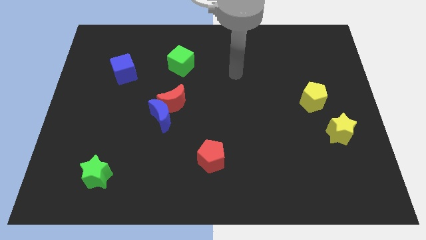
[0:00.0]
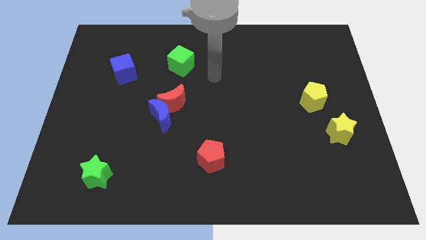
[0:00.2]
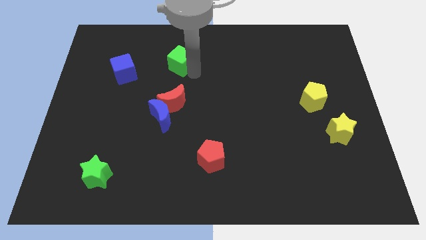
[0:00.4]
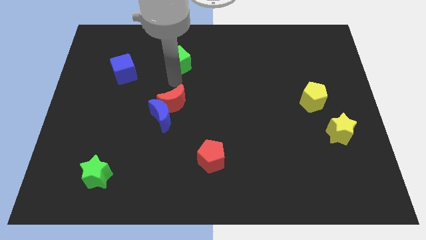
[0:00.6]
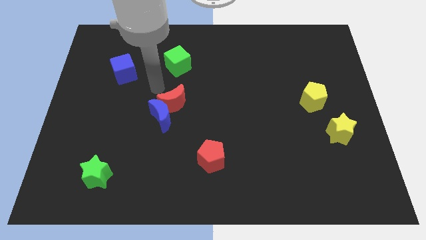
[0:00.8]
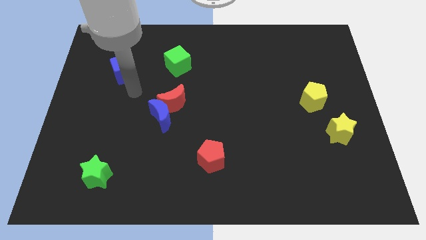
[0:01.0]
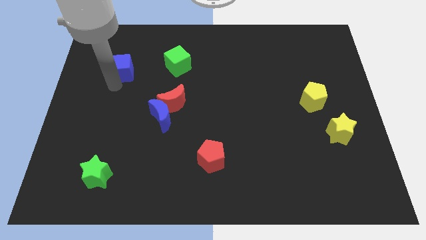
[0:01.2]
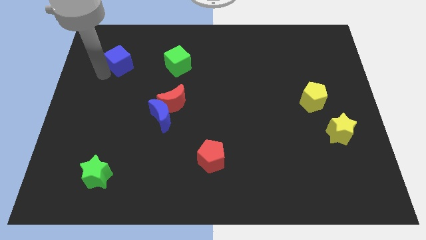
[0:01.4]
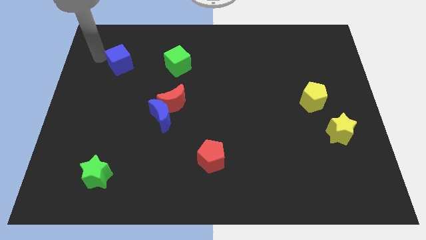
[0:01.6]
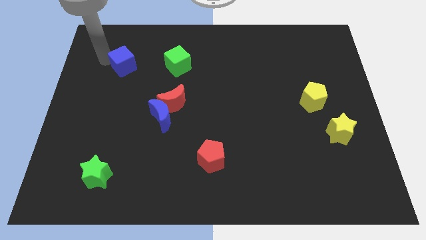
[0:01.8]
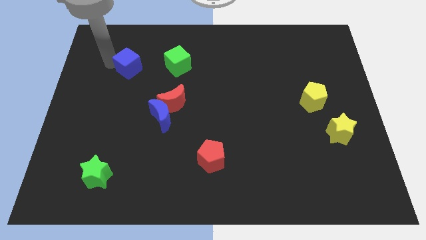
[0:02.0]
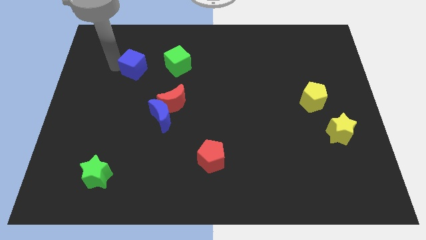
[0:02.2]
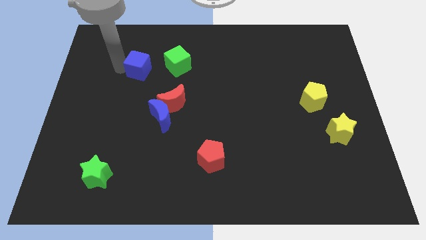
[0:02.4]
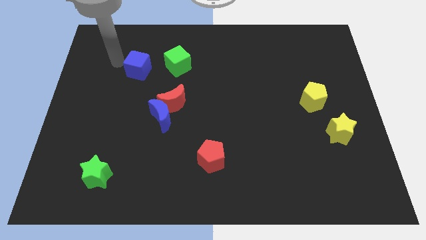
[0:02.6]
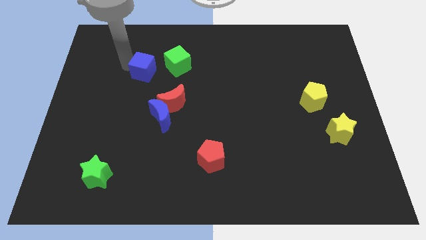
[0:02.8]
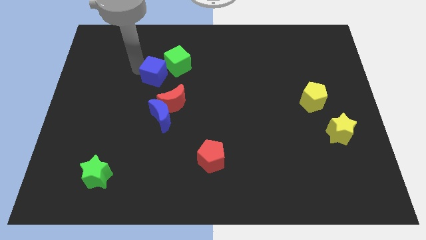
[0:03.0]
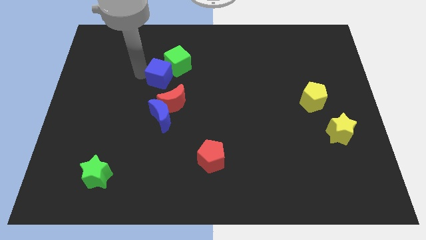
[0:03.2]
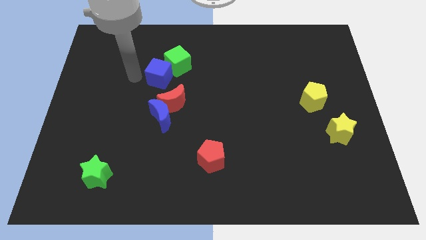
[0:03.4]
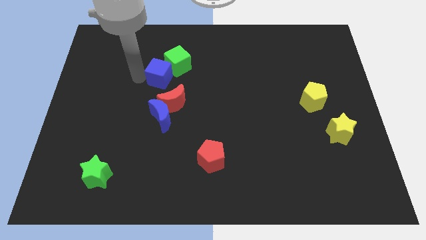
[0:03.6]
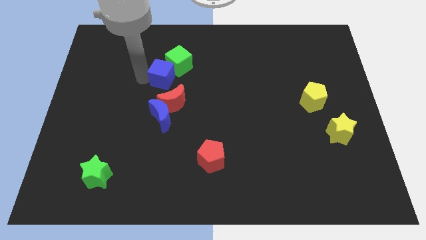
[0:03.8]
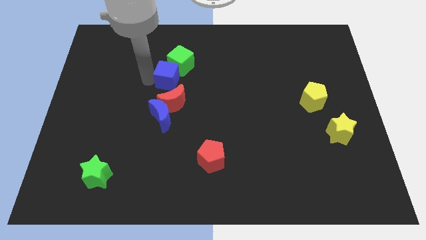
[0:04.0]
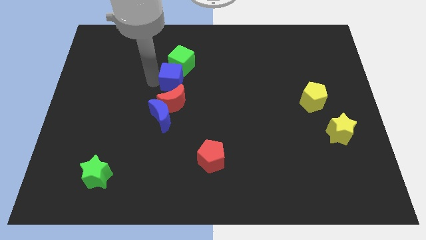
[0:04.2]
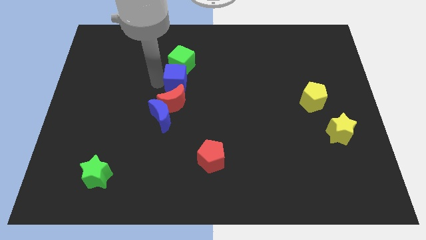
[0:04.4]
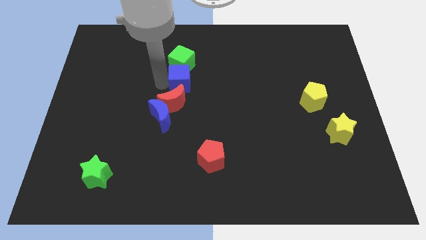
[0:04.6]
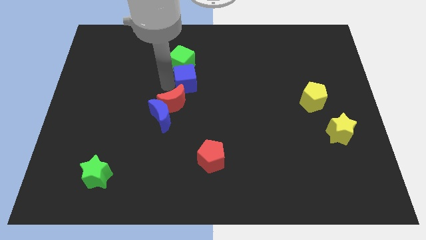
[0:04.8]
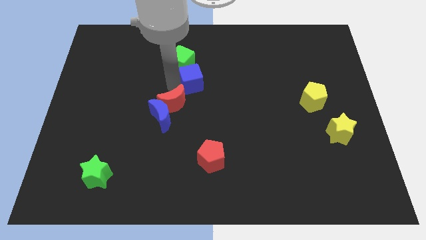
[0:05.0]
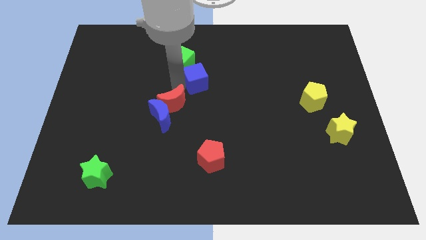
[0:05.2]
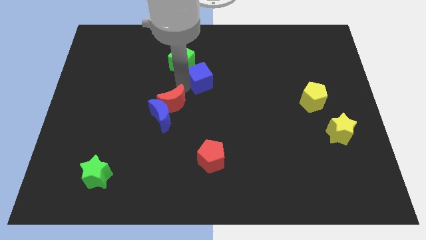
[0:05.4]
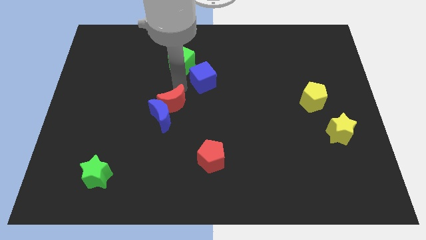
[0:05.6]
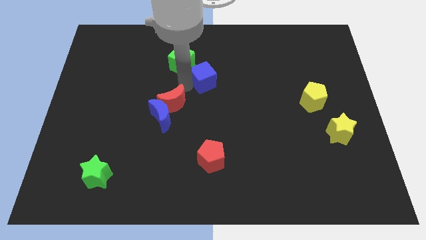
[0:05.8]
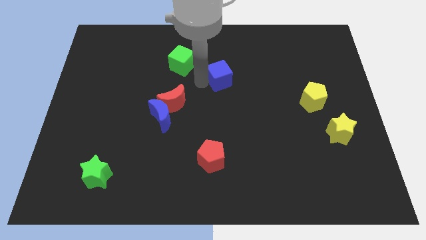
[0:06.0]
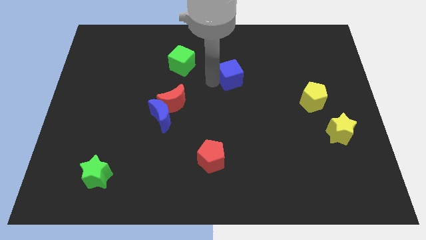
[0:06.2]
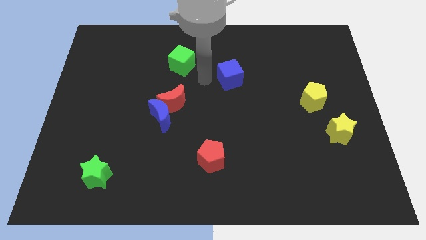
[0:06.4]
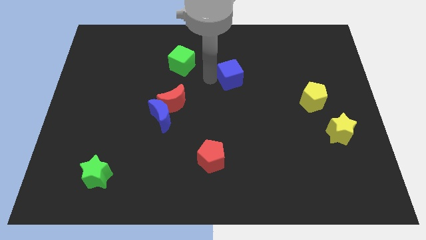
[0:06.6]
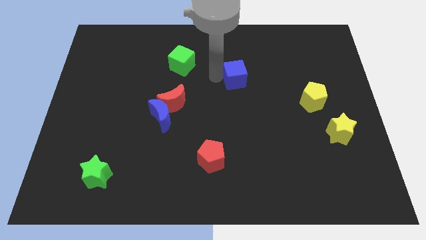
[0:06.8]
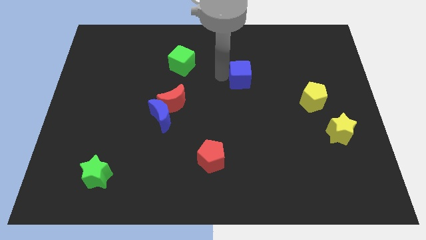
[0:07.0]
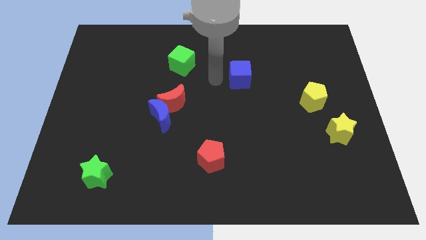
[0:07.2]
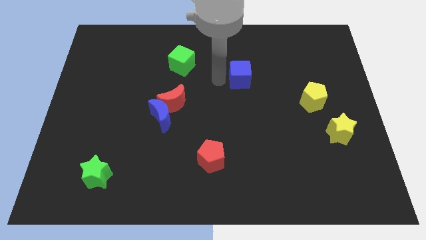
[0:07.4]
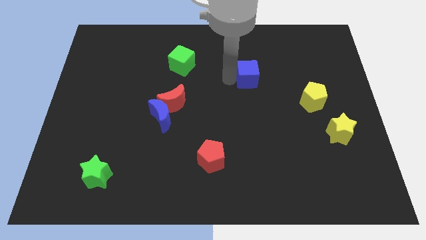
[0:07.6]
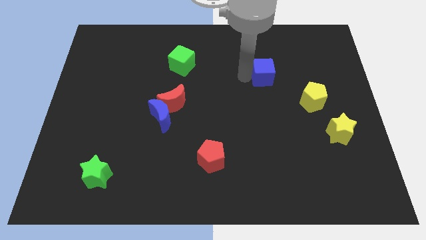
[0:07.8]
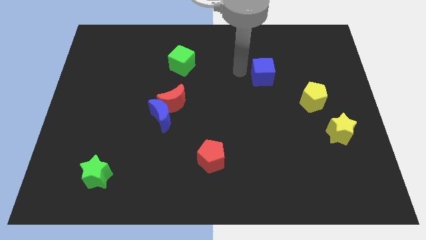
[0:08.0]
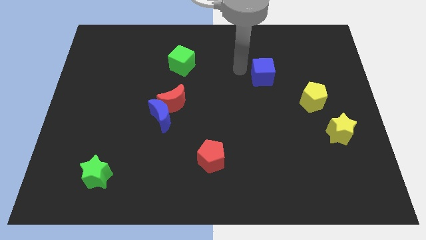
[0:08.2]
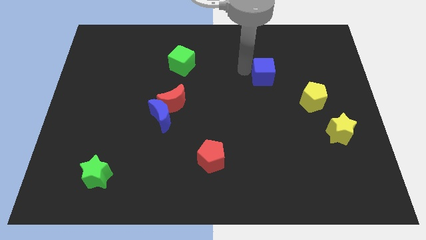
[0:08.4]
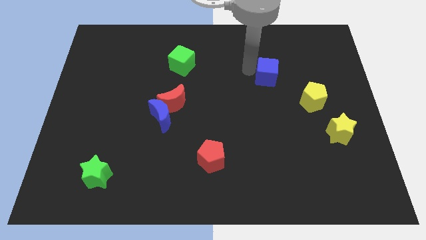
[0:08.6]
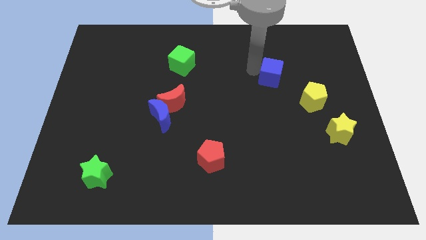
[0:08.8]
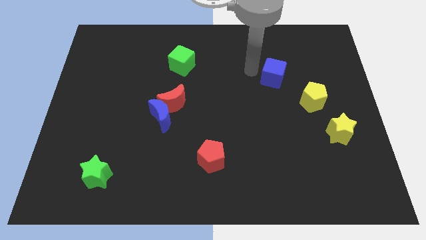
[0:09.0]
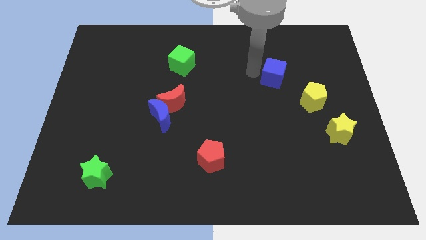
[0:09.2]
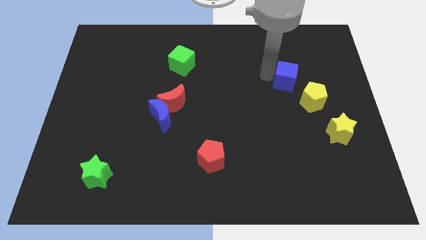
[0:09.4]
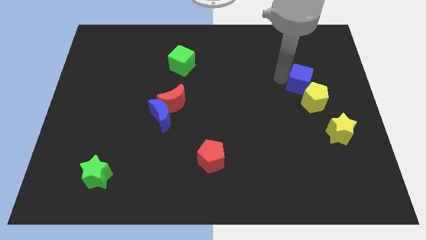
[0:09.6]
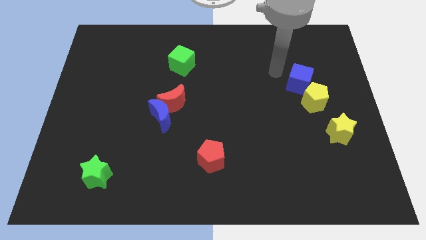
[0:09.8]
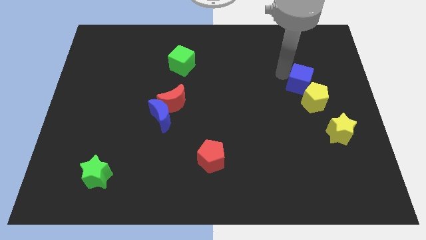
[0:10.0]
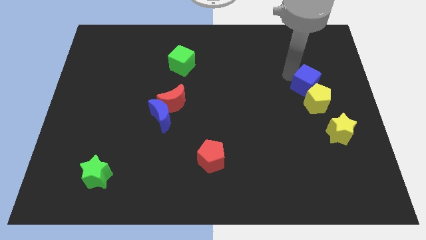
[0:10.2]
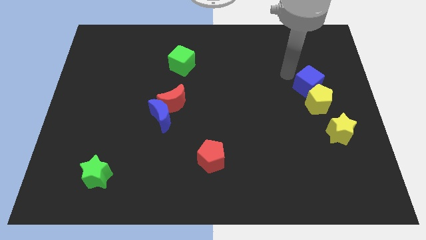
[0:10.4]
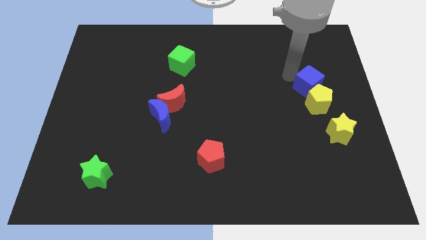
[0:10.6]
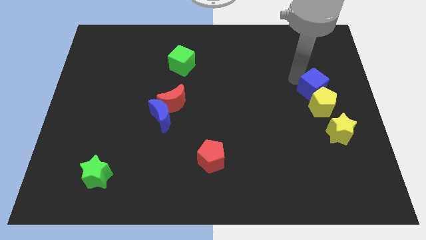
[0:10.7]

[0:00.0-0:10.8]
put the blue cube to the top side of the yellow star

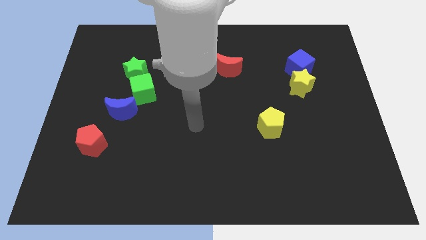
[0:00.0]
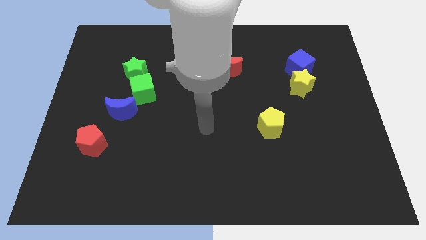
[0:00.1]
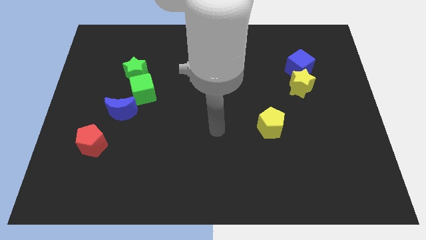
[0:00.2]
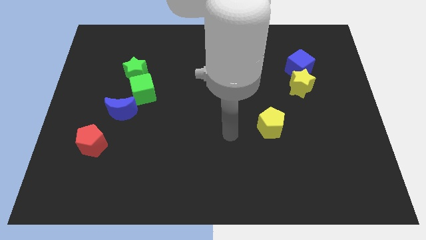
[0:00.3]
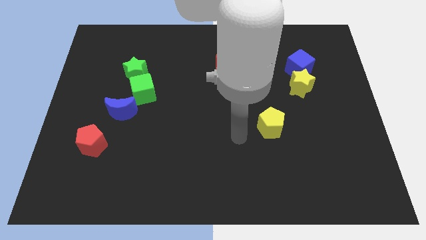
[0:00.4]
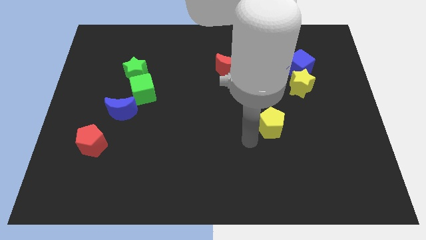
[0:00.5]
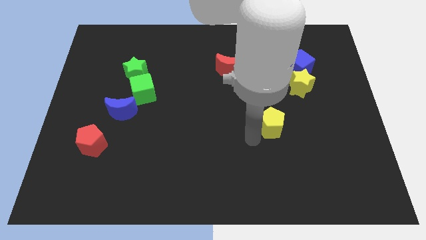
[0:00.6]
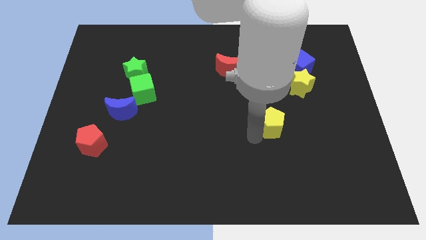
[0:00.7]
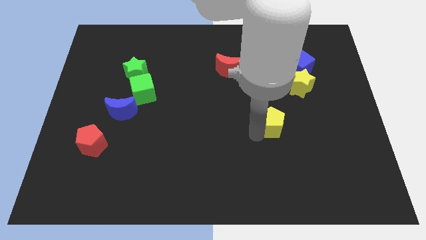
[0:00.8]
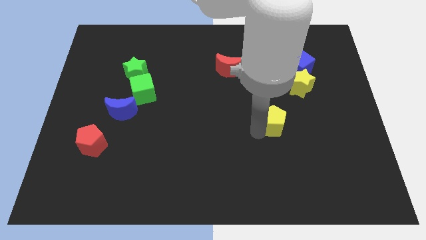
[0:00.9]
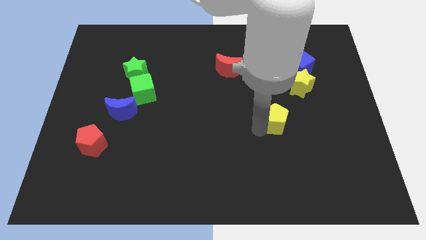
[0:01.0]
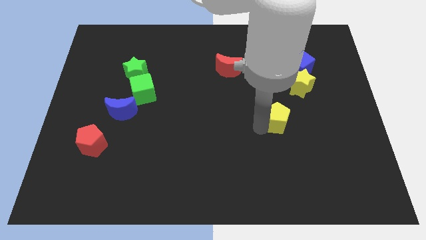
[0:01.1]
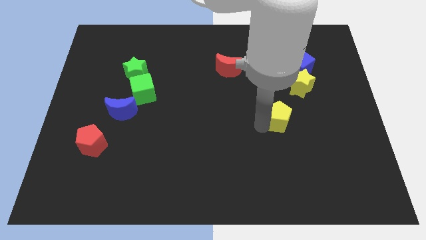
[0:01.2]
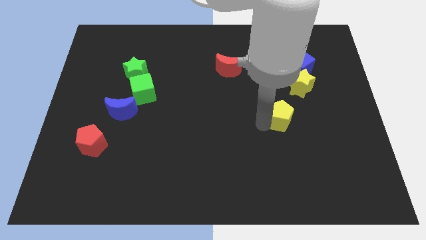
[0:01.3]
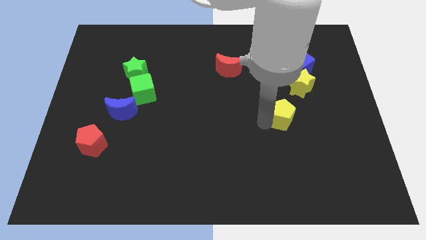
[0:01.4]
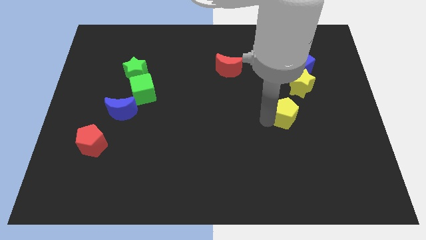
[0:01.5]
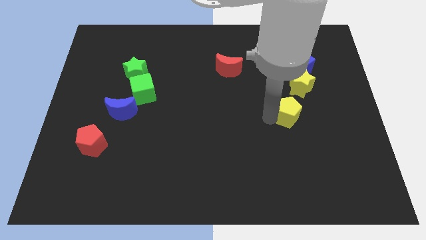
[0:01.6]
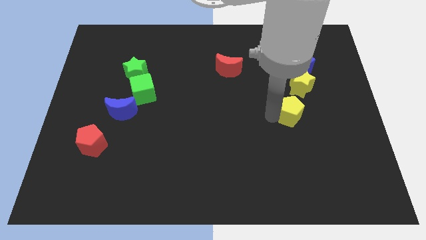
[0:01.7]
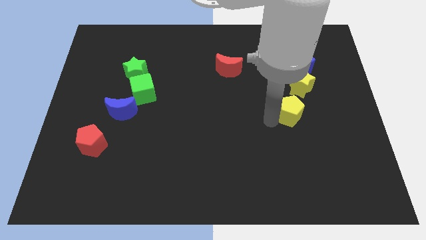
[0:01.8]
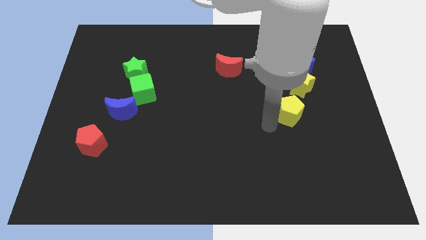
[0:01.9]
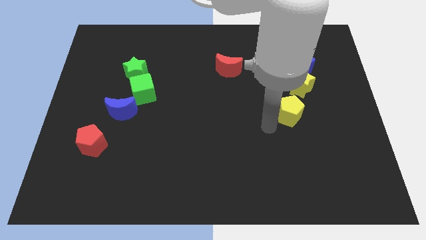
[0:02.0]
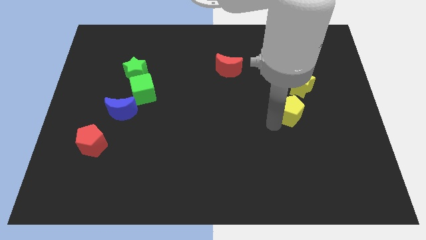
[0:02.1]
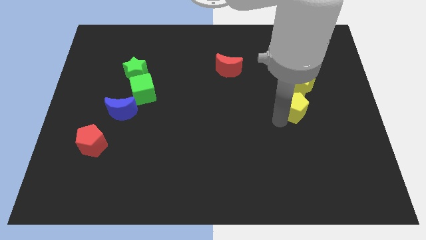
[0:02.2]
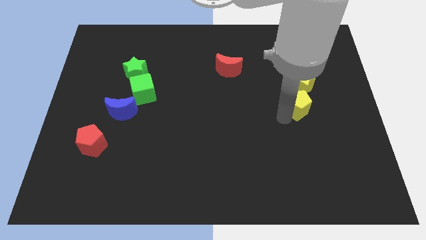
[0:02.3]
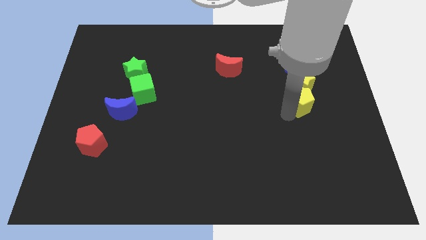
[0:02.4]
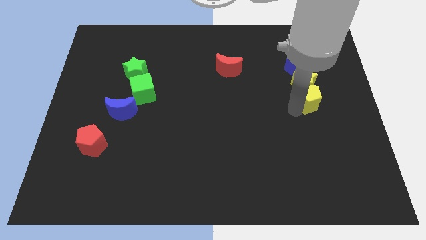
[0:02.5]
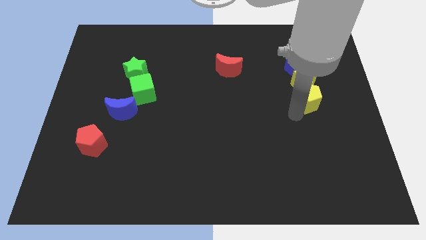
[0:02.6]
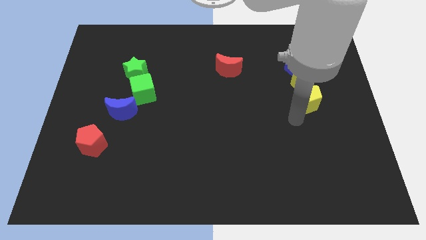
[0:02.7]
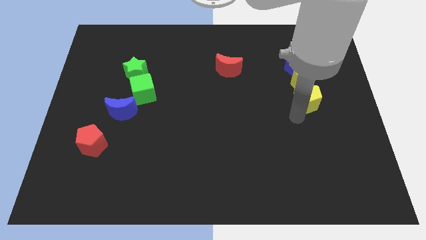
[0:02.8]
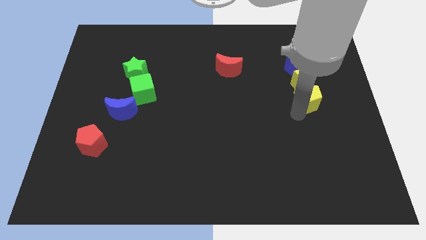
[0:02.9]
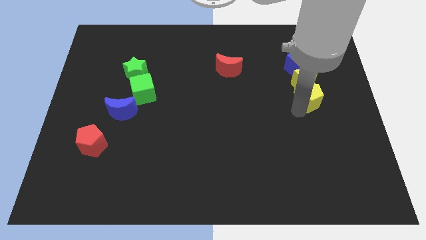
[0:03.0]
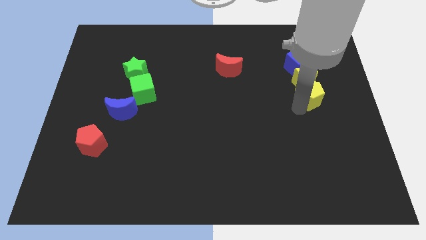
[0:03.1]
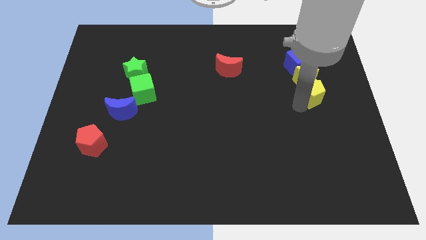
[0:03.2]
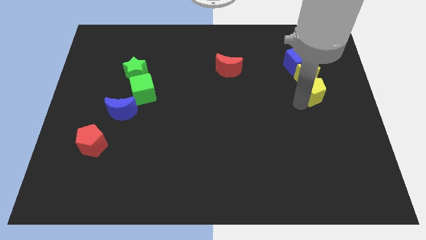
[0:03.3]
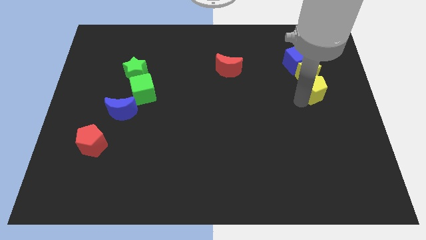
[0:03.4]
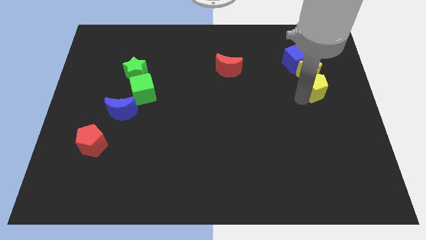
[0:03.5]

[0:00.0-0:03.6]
move the yellow pentagon to the bottom right of the blue cube
